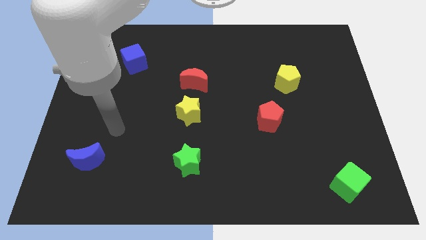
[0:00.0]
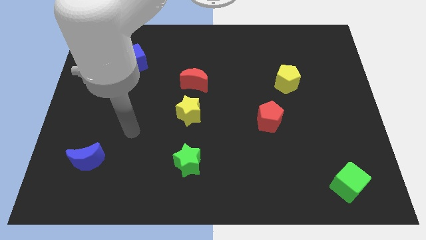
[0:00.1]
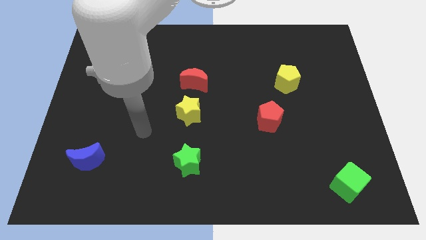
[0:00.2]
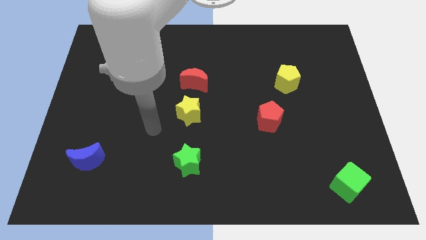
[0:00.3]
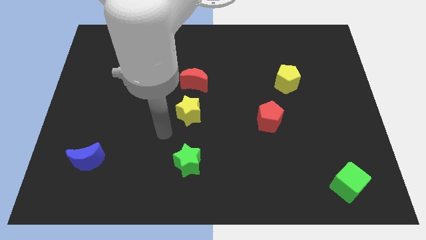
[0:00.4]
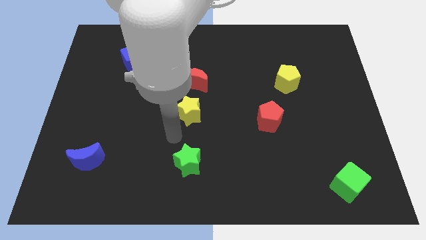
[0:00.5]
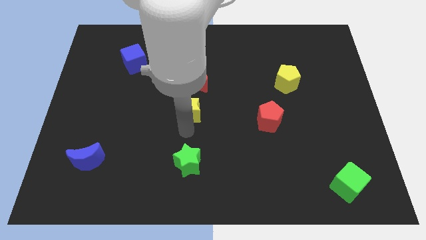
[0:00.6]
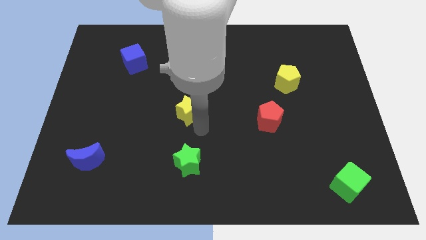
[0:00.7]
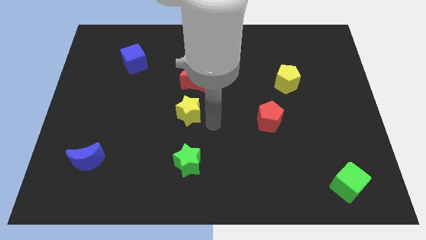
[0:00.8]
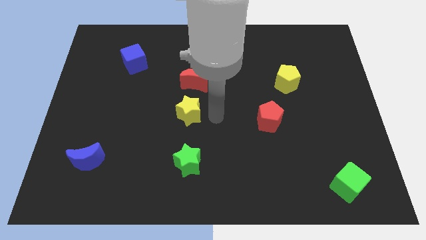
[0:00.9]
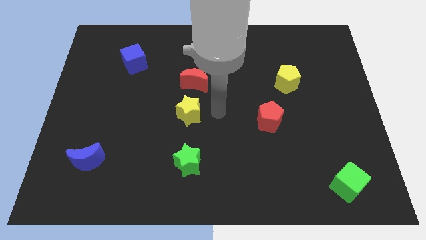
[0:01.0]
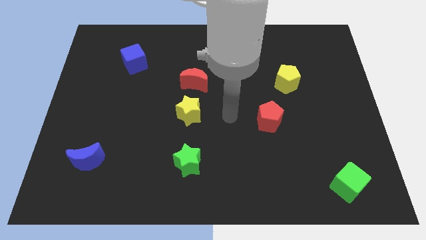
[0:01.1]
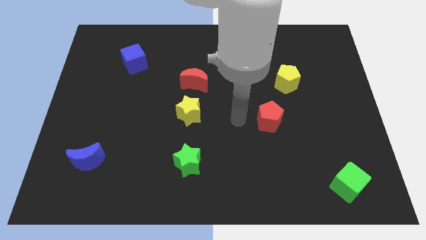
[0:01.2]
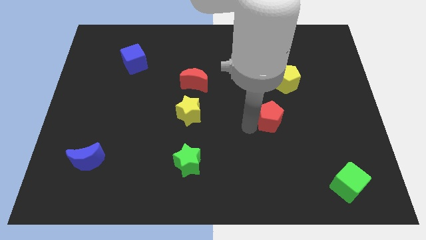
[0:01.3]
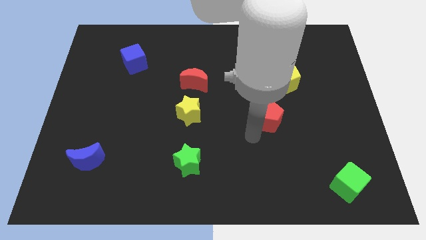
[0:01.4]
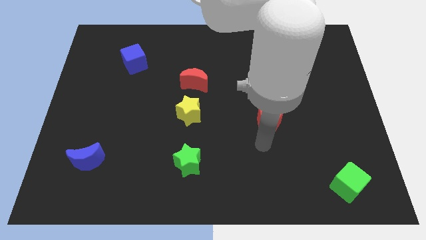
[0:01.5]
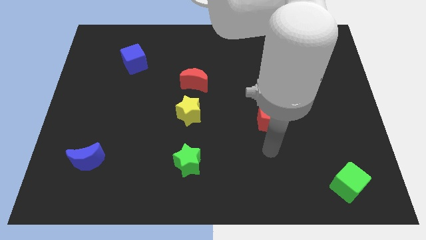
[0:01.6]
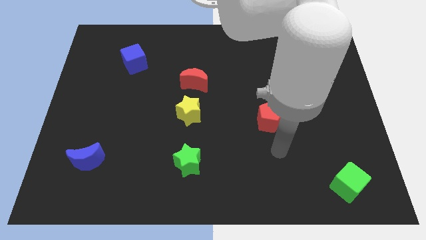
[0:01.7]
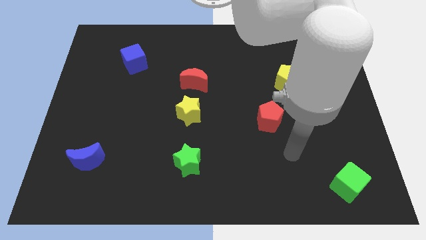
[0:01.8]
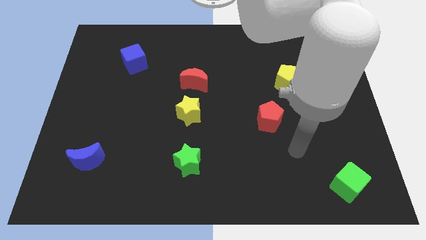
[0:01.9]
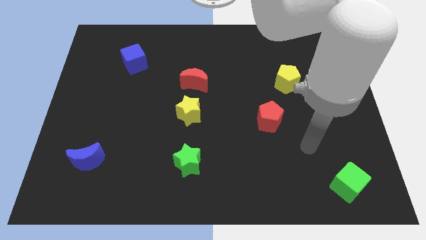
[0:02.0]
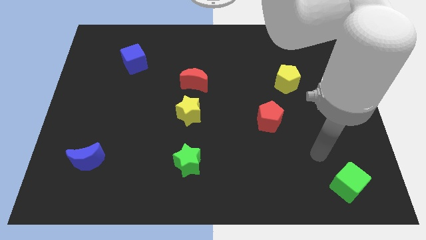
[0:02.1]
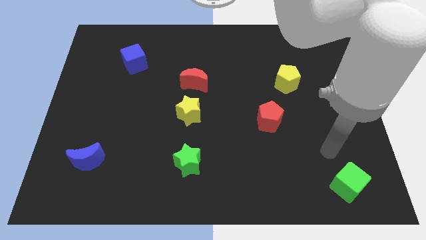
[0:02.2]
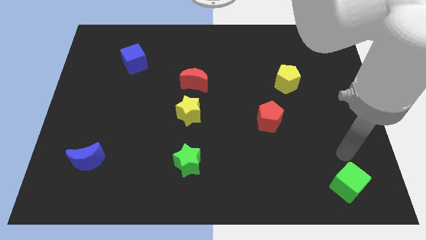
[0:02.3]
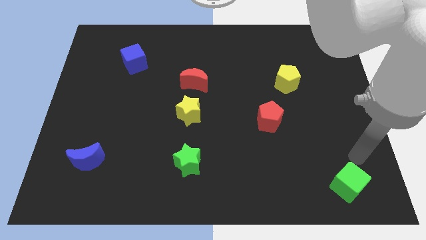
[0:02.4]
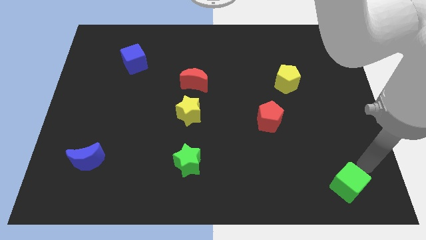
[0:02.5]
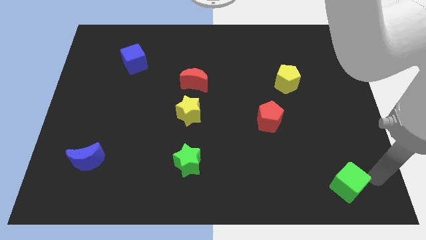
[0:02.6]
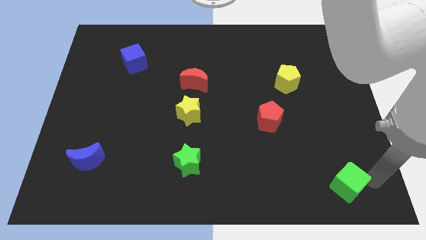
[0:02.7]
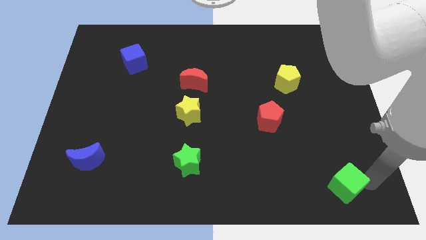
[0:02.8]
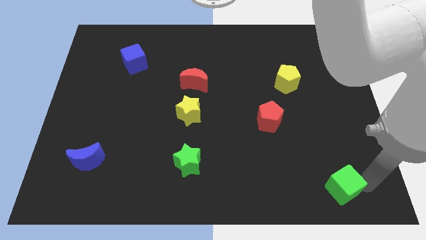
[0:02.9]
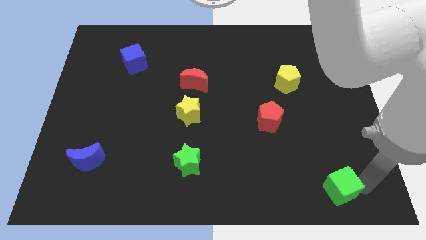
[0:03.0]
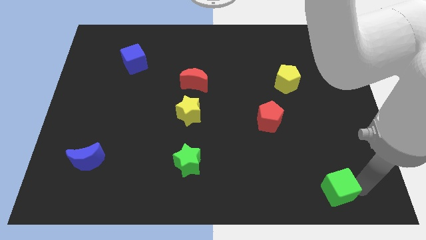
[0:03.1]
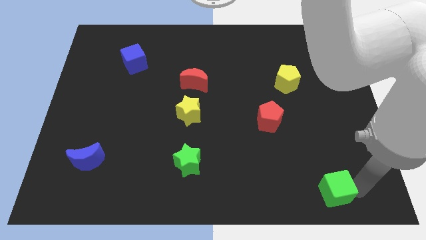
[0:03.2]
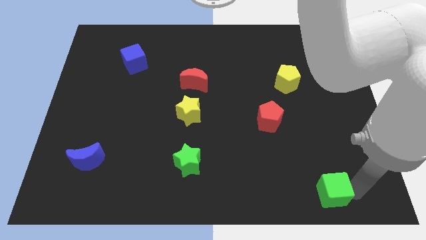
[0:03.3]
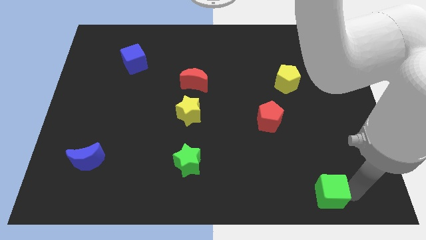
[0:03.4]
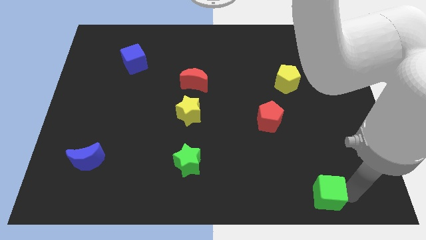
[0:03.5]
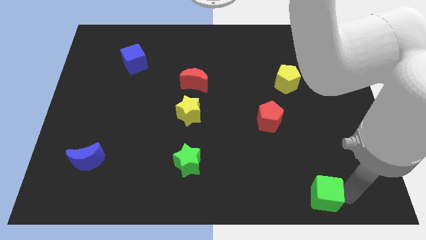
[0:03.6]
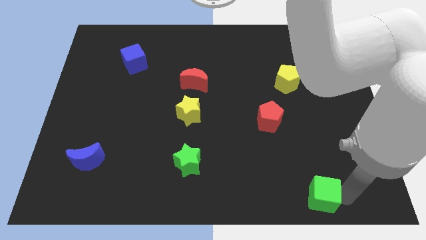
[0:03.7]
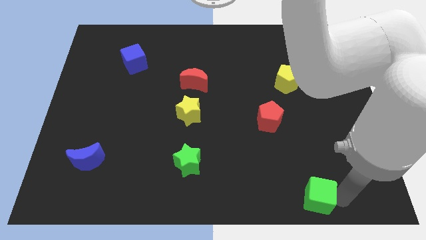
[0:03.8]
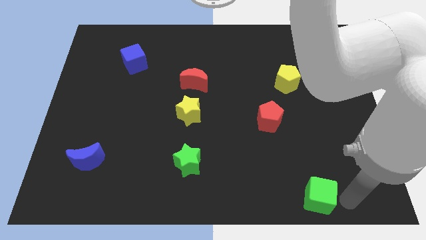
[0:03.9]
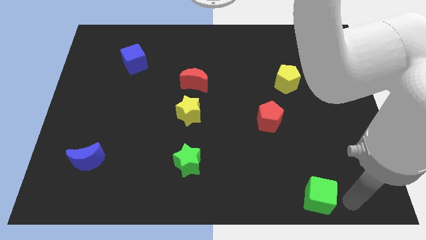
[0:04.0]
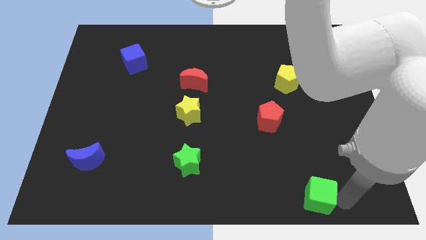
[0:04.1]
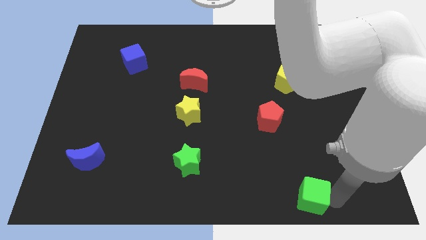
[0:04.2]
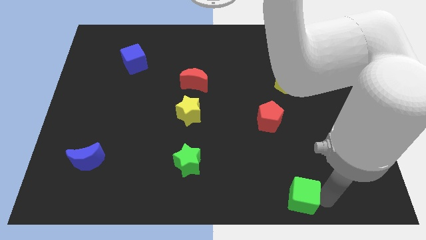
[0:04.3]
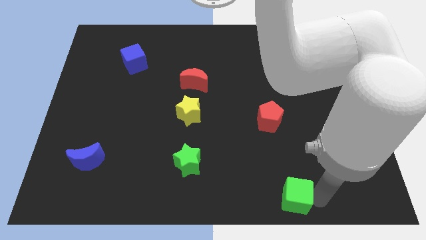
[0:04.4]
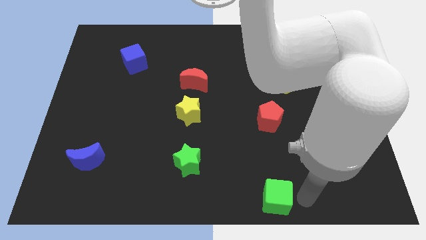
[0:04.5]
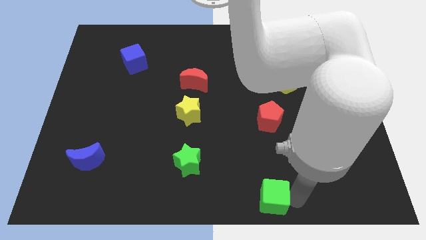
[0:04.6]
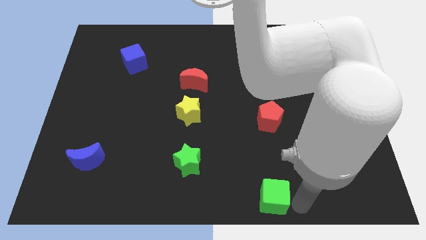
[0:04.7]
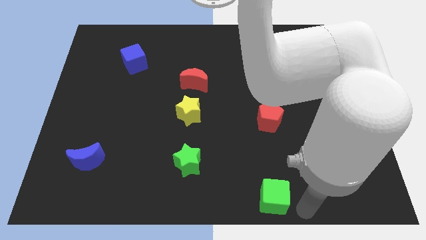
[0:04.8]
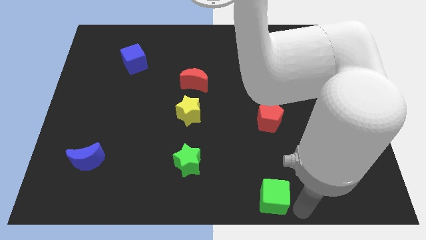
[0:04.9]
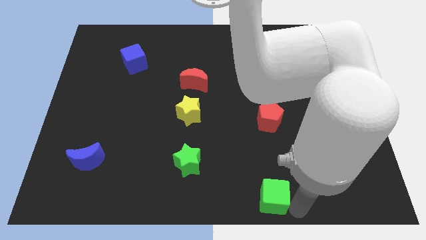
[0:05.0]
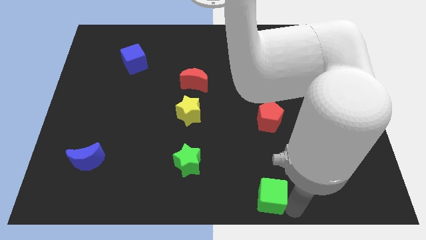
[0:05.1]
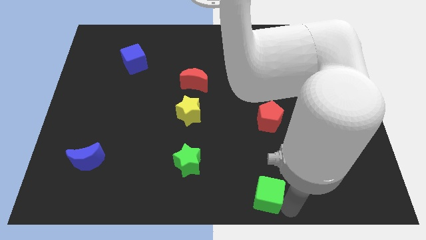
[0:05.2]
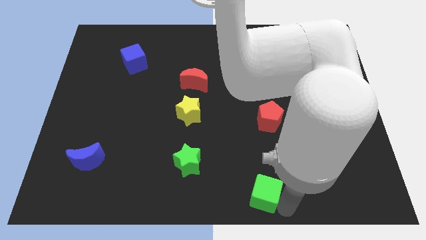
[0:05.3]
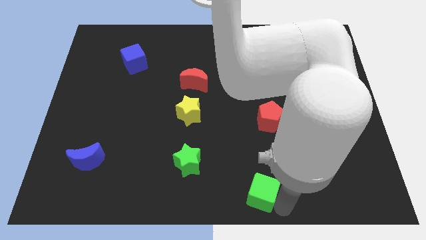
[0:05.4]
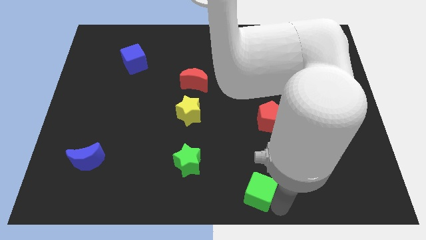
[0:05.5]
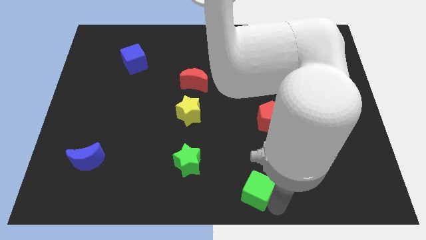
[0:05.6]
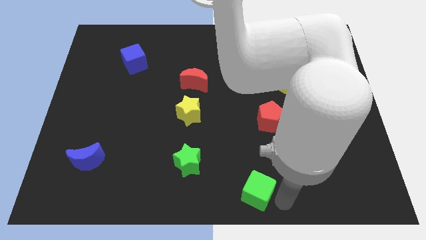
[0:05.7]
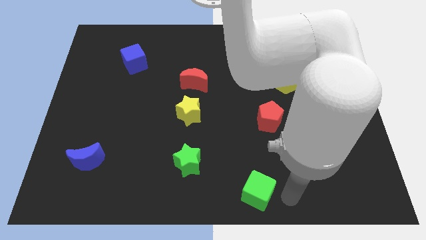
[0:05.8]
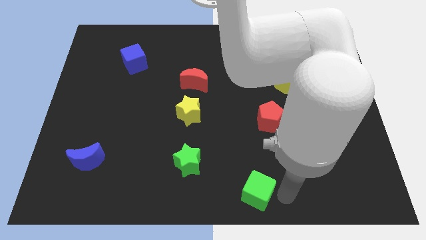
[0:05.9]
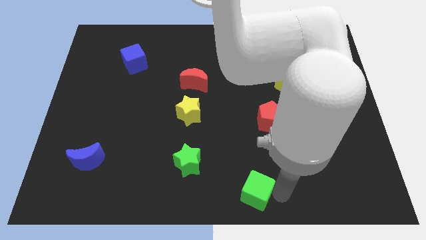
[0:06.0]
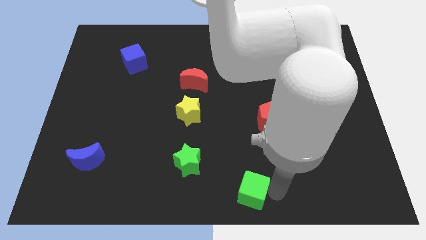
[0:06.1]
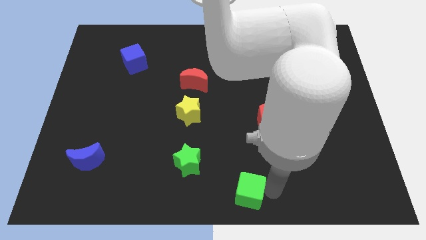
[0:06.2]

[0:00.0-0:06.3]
push the green cube to the left

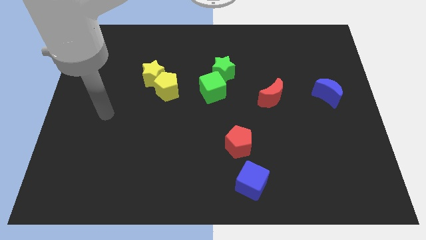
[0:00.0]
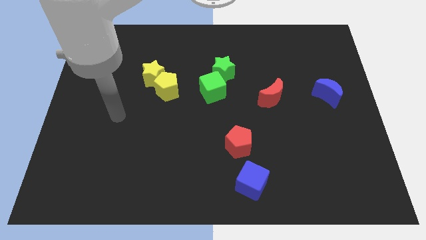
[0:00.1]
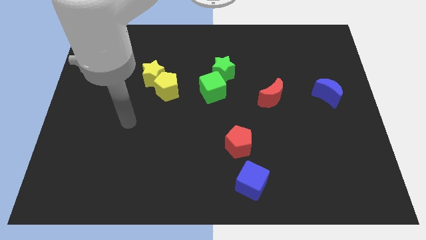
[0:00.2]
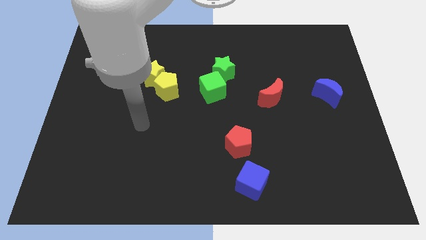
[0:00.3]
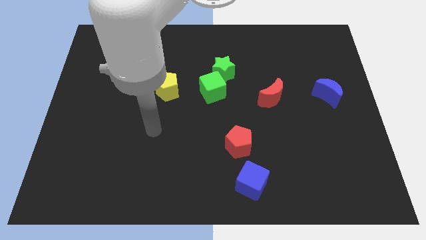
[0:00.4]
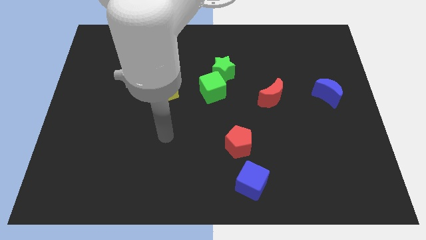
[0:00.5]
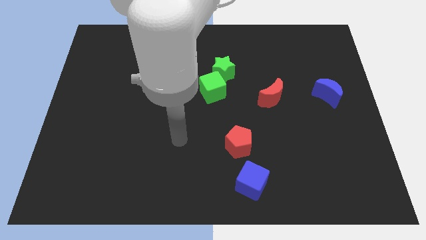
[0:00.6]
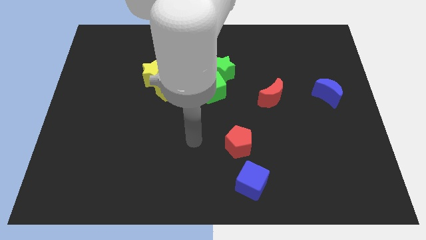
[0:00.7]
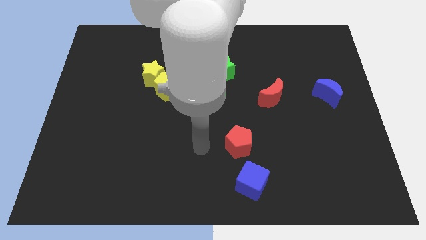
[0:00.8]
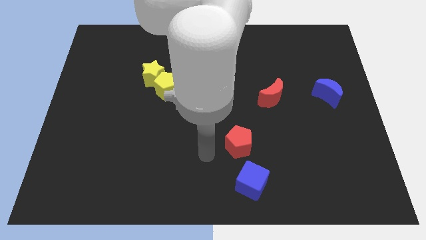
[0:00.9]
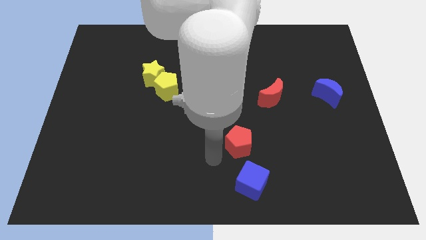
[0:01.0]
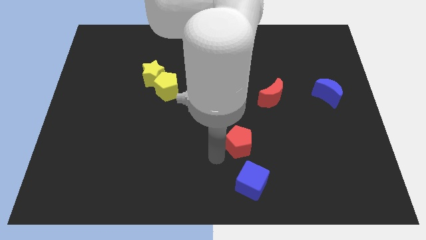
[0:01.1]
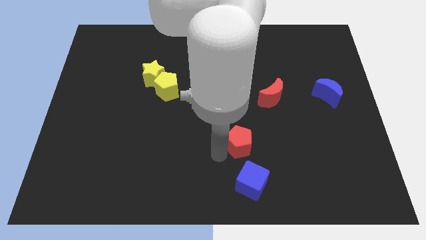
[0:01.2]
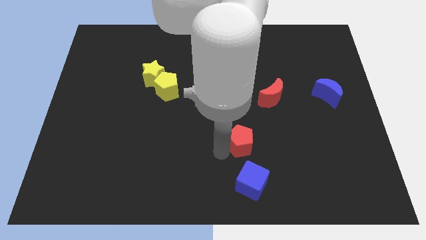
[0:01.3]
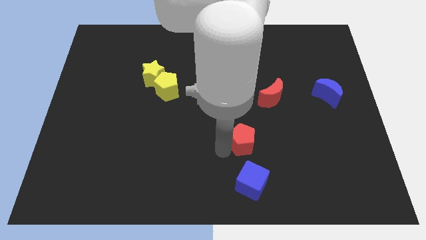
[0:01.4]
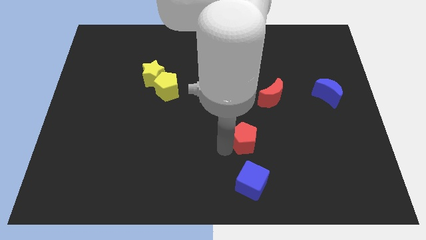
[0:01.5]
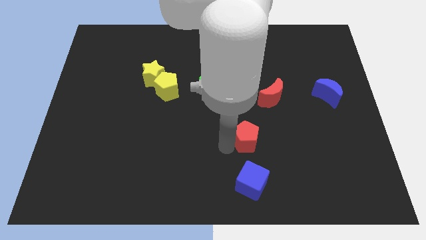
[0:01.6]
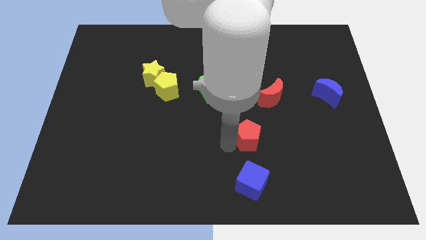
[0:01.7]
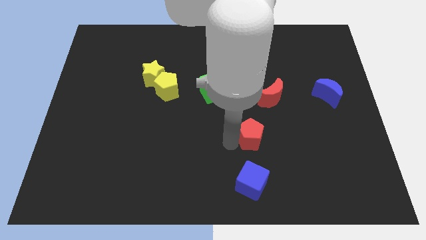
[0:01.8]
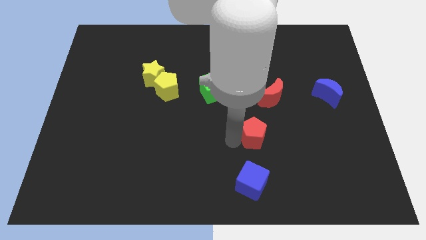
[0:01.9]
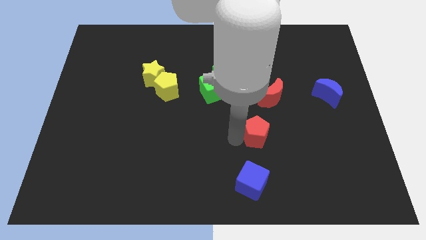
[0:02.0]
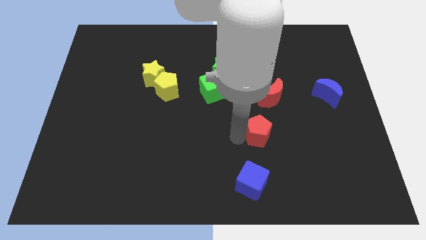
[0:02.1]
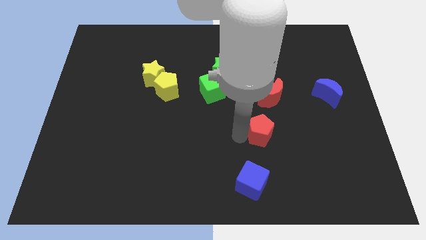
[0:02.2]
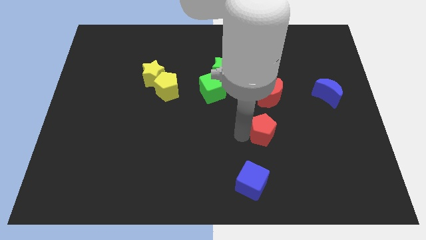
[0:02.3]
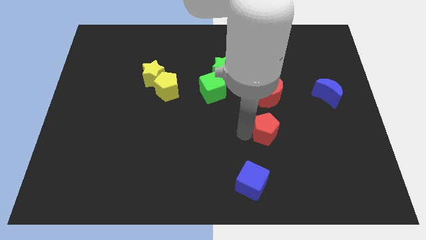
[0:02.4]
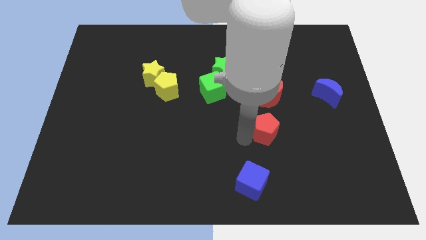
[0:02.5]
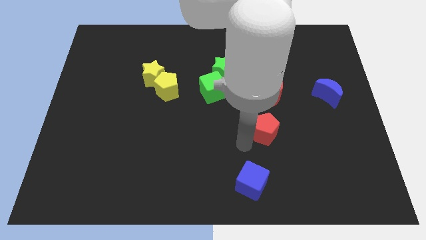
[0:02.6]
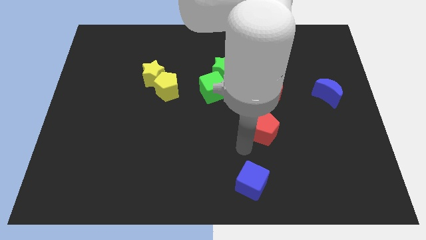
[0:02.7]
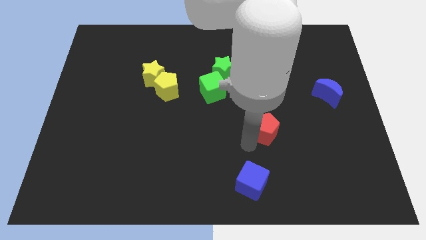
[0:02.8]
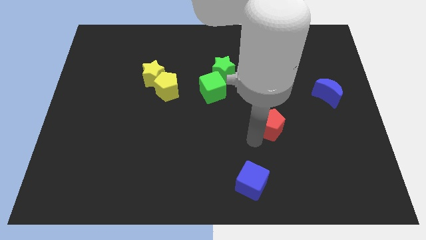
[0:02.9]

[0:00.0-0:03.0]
slide the red pentagon a little up and then to the right
